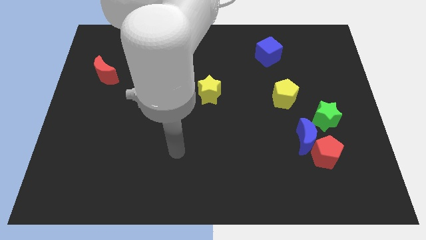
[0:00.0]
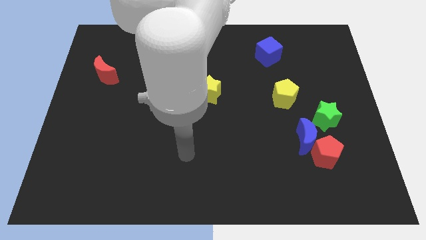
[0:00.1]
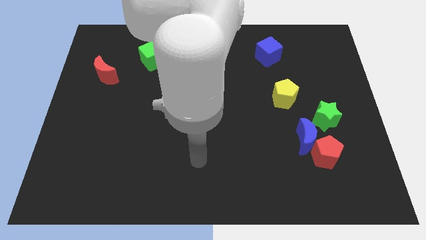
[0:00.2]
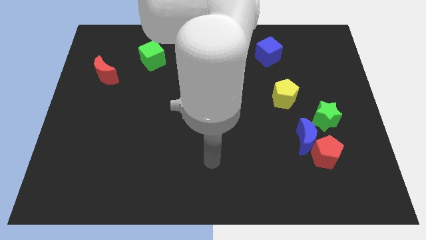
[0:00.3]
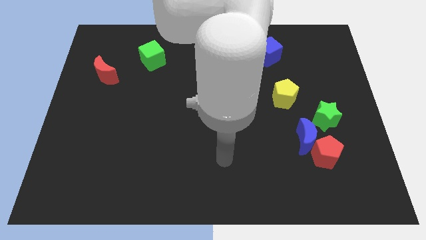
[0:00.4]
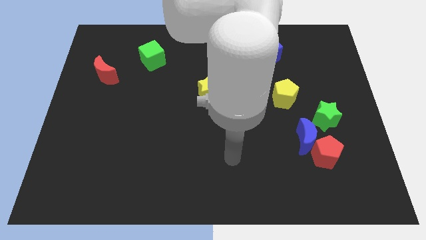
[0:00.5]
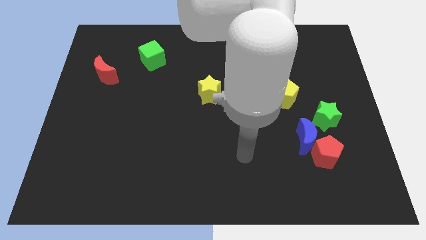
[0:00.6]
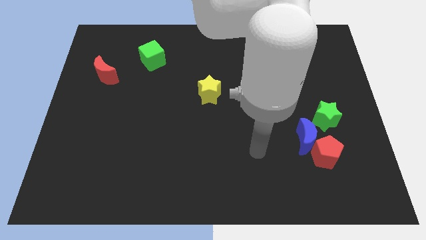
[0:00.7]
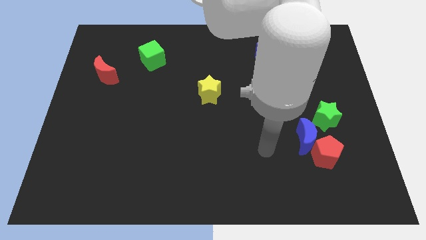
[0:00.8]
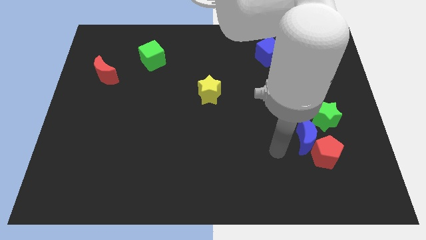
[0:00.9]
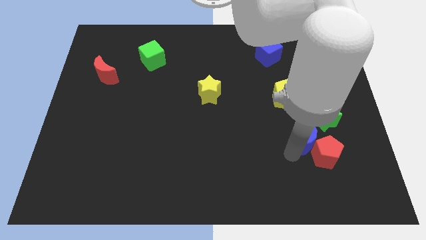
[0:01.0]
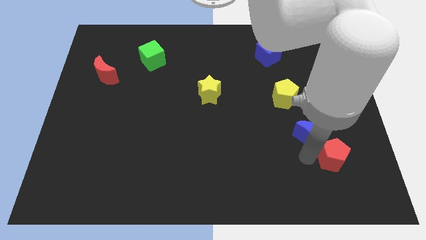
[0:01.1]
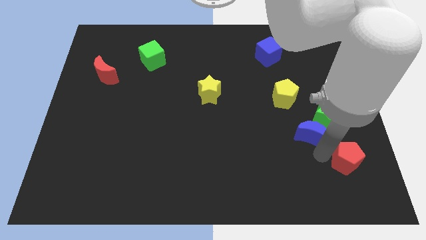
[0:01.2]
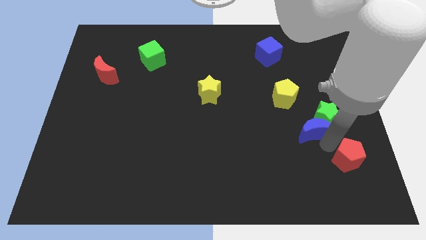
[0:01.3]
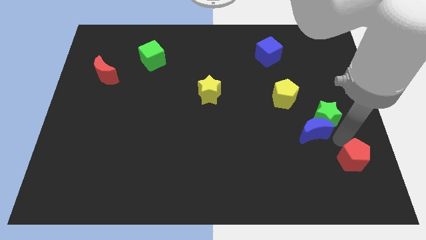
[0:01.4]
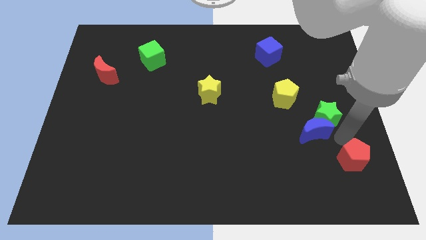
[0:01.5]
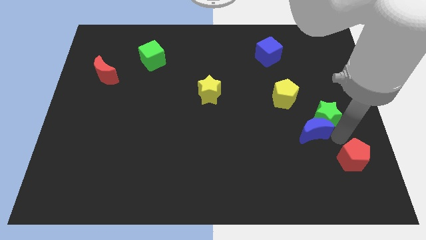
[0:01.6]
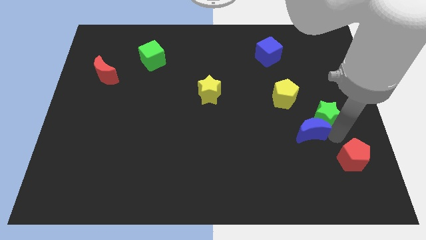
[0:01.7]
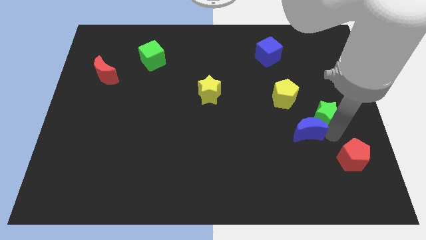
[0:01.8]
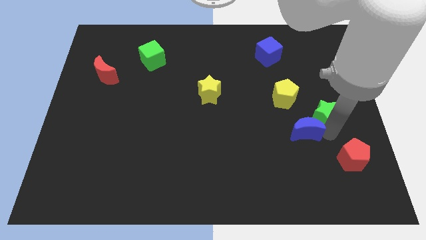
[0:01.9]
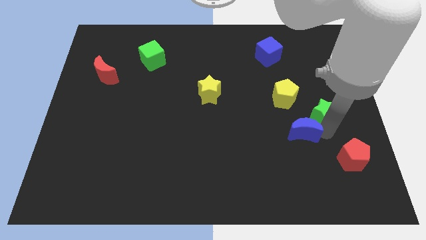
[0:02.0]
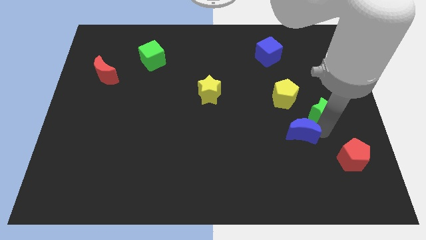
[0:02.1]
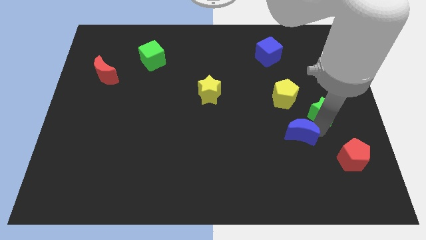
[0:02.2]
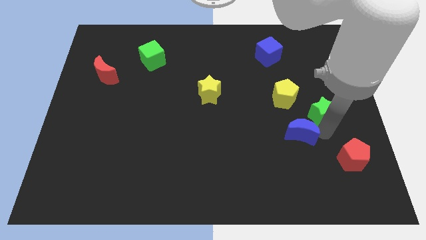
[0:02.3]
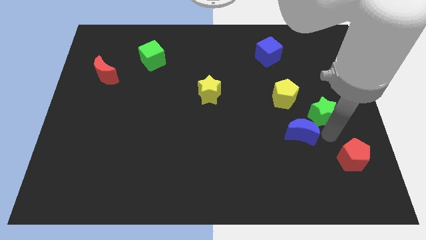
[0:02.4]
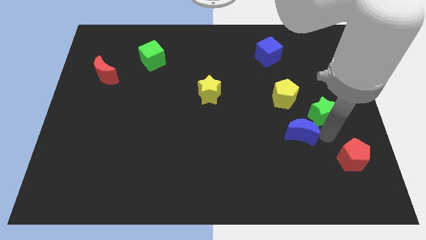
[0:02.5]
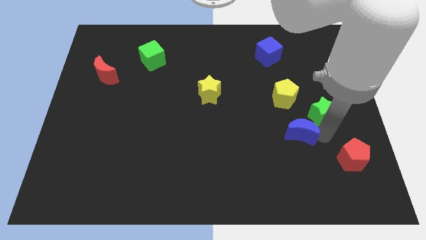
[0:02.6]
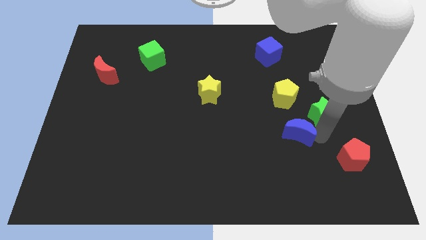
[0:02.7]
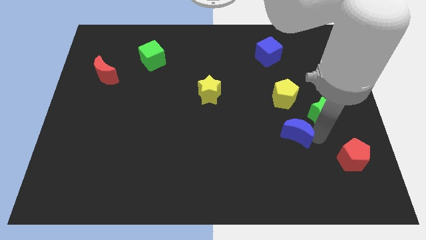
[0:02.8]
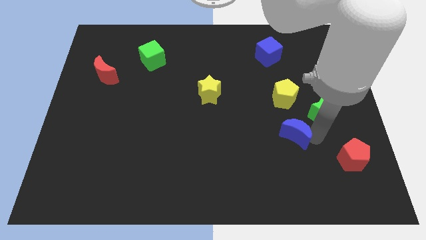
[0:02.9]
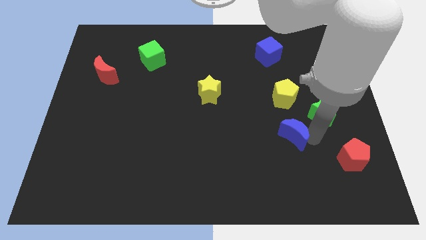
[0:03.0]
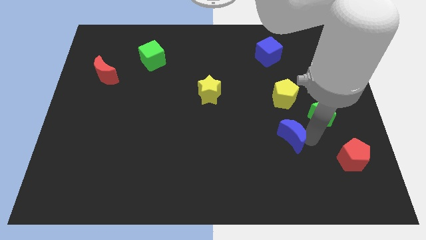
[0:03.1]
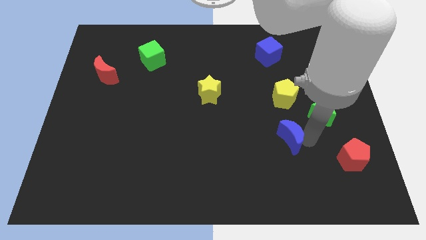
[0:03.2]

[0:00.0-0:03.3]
separate the blue moon from the red pentagon and green star

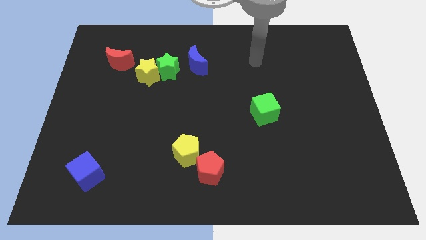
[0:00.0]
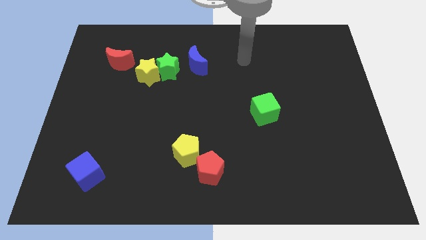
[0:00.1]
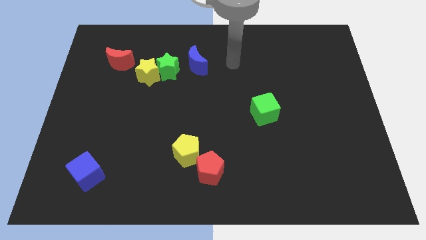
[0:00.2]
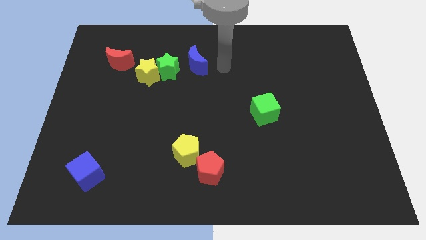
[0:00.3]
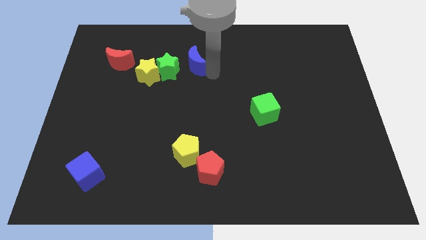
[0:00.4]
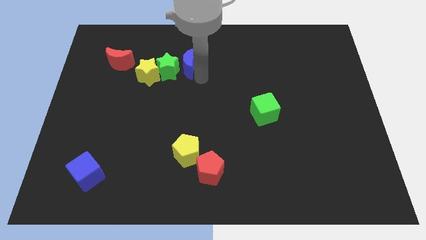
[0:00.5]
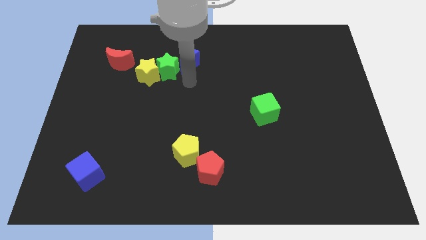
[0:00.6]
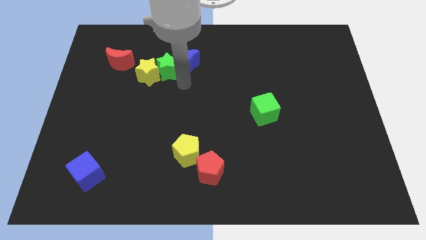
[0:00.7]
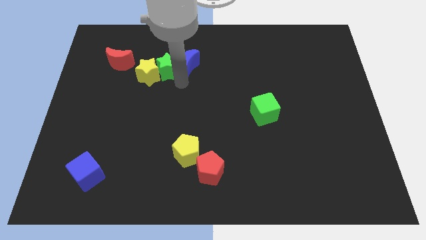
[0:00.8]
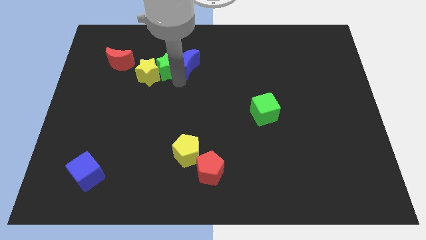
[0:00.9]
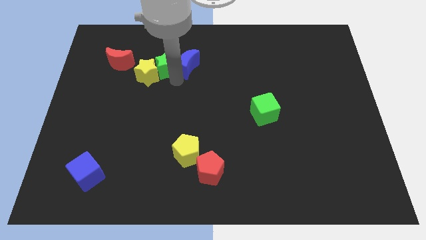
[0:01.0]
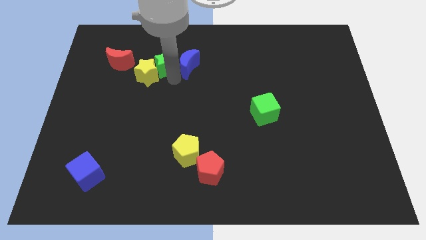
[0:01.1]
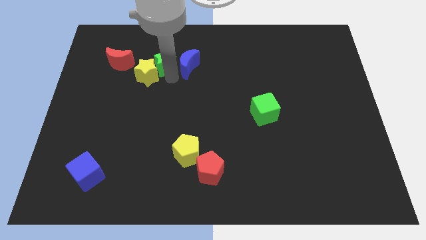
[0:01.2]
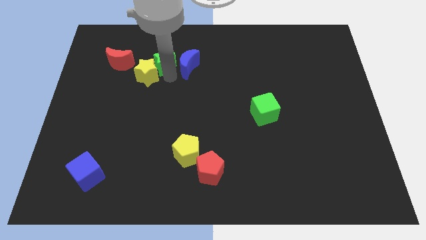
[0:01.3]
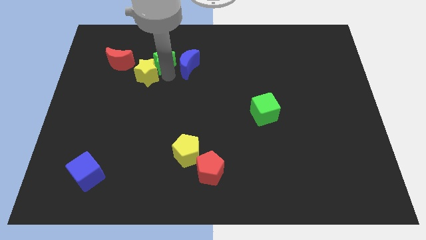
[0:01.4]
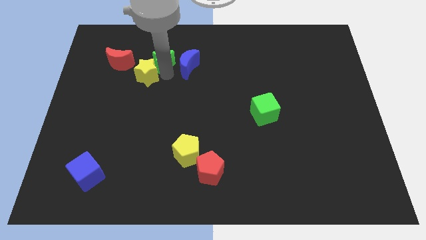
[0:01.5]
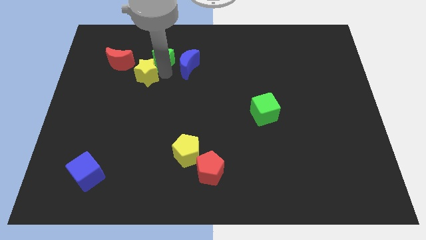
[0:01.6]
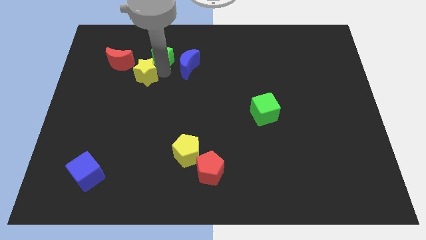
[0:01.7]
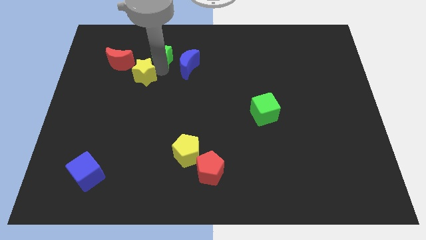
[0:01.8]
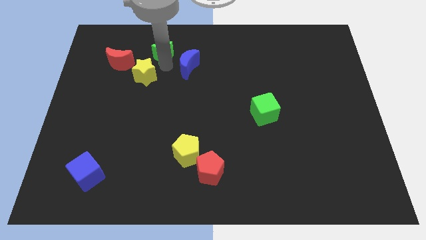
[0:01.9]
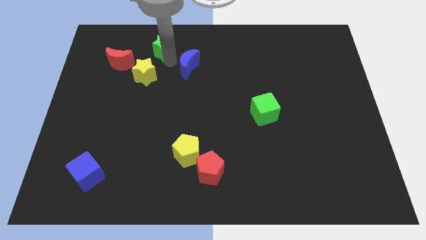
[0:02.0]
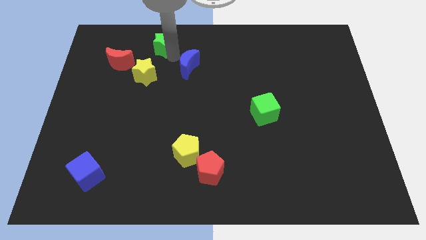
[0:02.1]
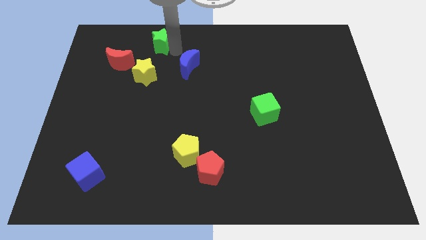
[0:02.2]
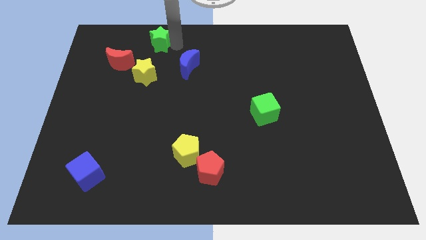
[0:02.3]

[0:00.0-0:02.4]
separate the green star from the yellow star and blue moon

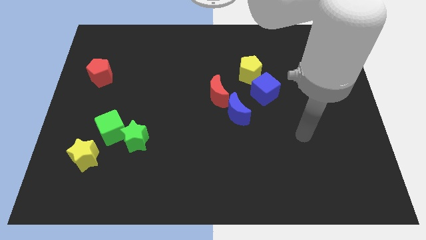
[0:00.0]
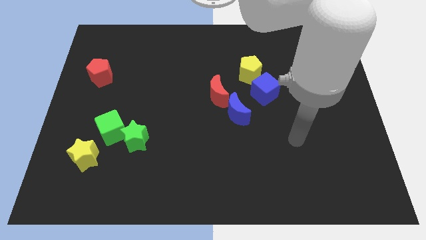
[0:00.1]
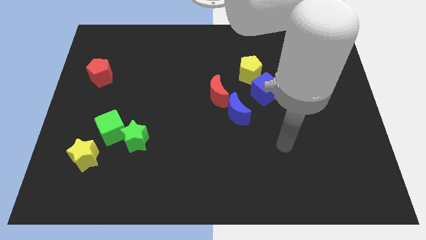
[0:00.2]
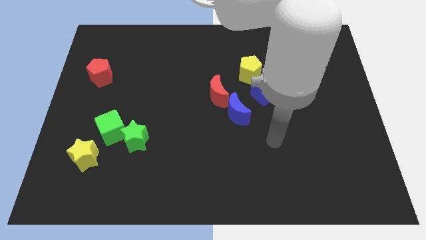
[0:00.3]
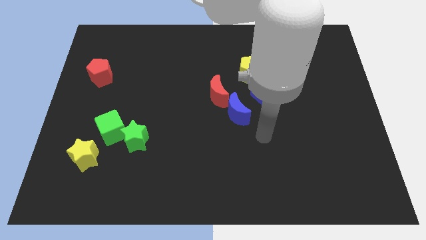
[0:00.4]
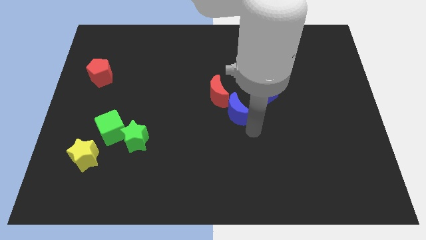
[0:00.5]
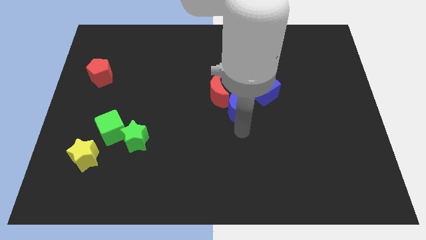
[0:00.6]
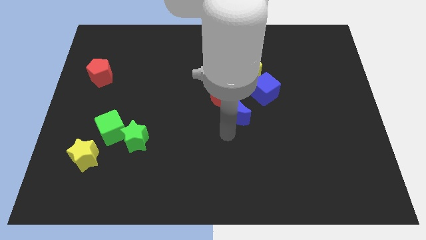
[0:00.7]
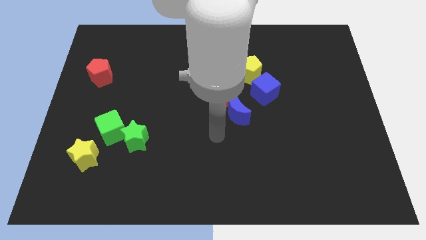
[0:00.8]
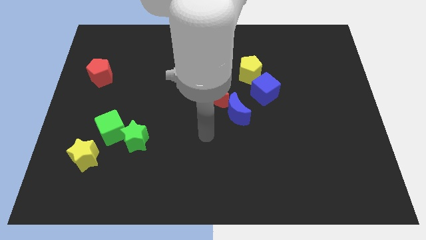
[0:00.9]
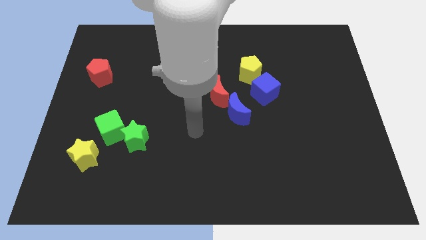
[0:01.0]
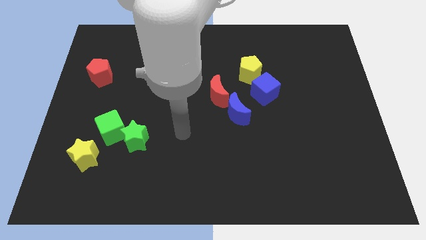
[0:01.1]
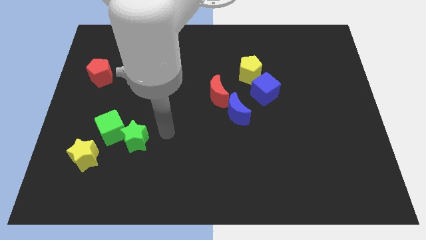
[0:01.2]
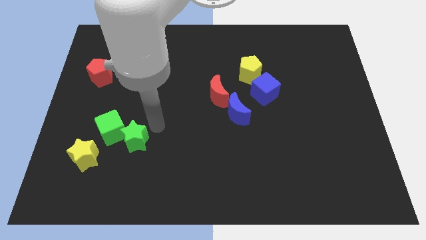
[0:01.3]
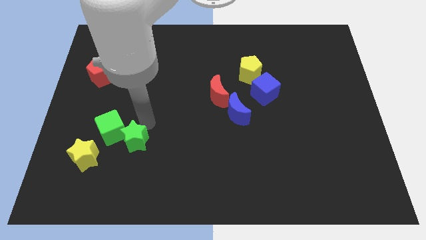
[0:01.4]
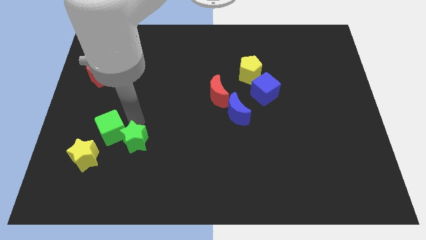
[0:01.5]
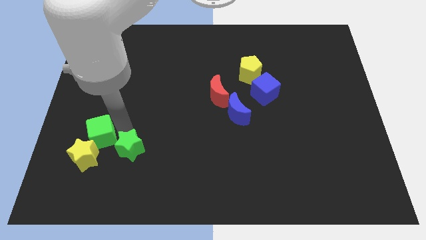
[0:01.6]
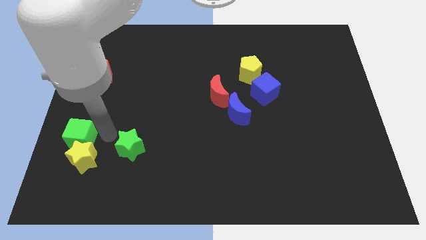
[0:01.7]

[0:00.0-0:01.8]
separate the green star from the green cube

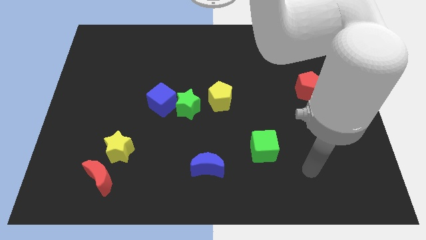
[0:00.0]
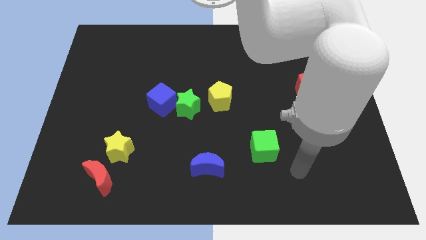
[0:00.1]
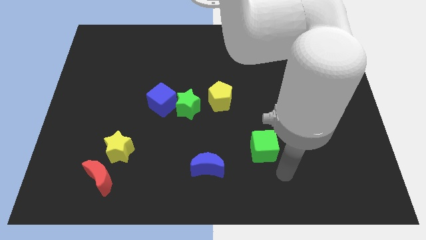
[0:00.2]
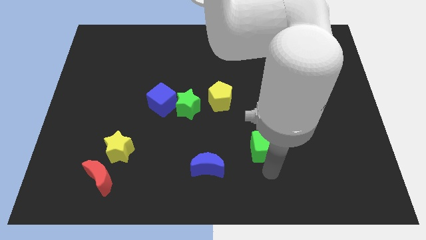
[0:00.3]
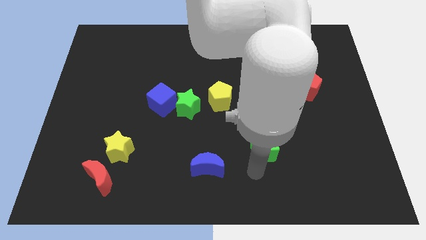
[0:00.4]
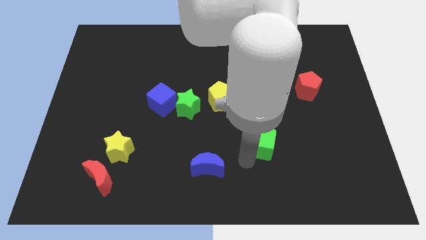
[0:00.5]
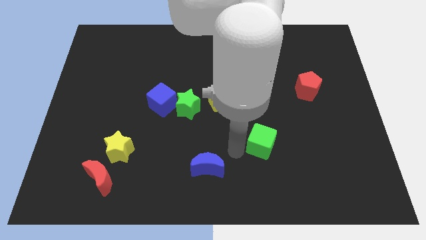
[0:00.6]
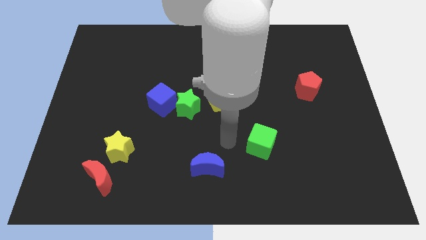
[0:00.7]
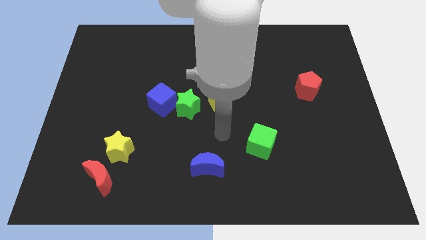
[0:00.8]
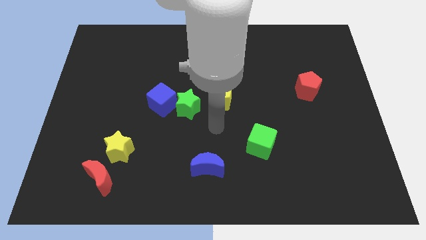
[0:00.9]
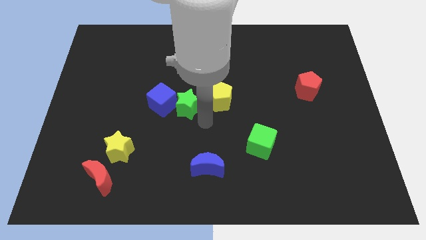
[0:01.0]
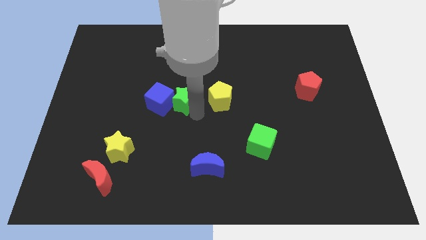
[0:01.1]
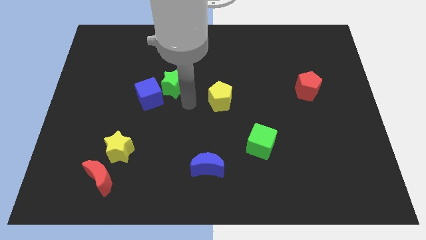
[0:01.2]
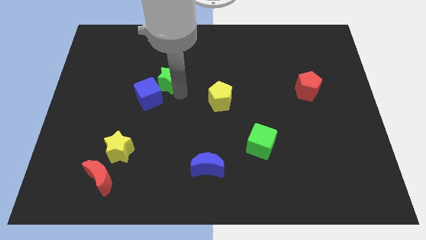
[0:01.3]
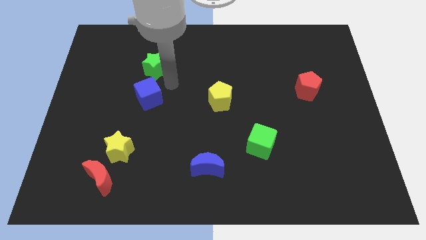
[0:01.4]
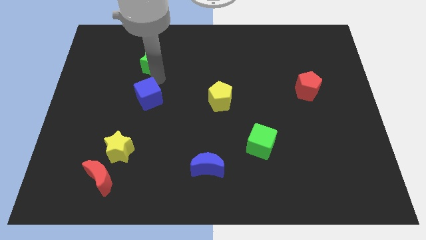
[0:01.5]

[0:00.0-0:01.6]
move the blue cube away from the green star

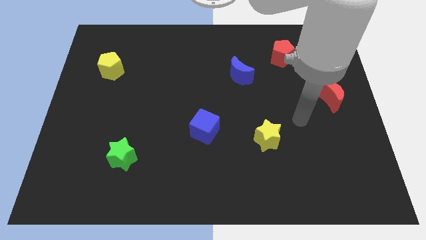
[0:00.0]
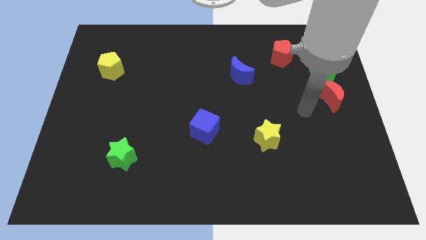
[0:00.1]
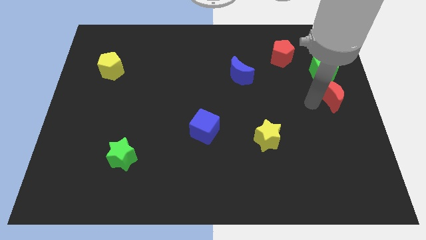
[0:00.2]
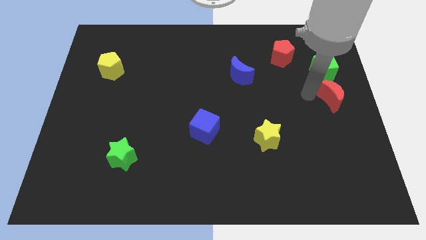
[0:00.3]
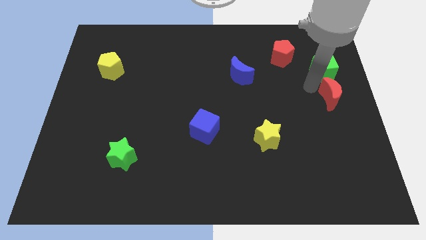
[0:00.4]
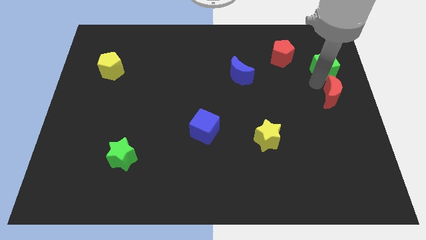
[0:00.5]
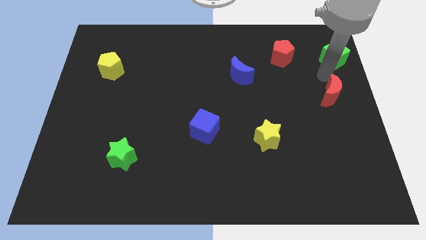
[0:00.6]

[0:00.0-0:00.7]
pull the red moon apart from the green cube
